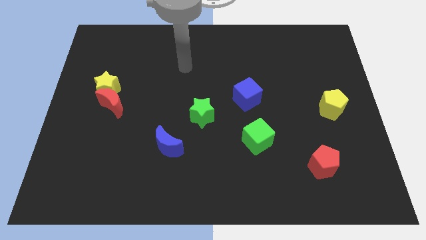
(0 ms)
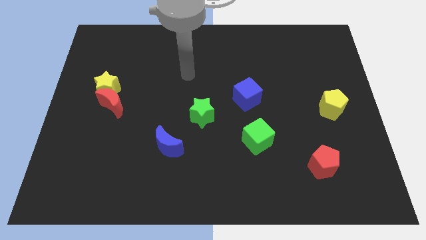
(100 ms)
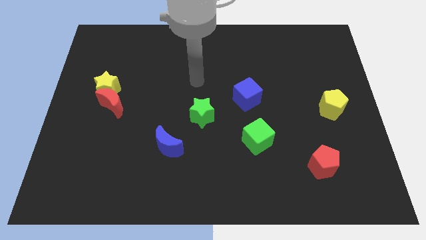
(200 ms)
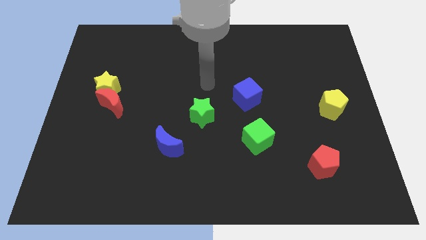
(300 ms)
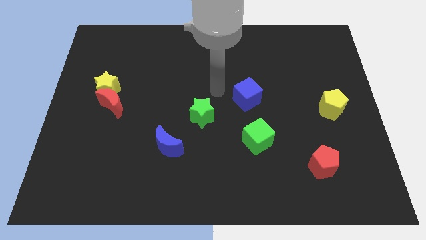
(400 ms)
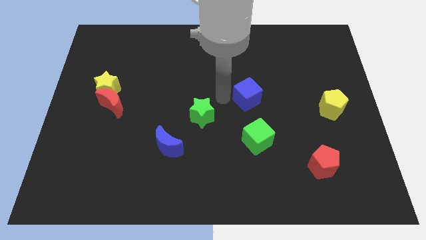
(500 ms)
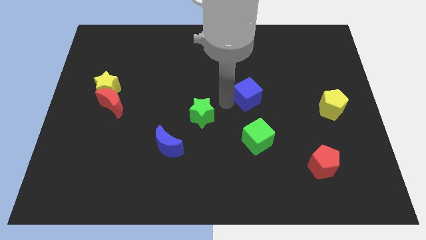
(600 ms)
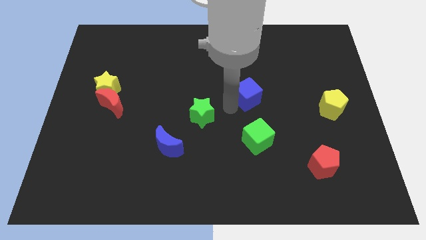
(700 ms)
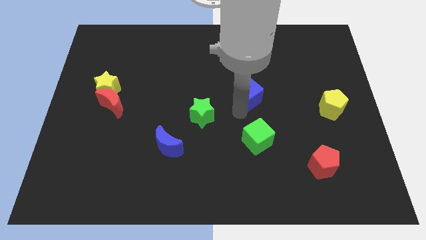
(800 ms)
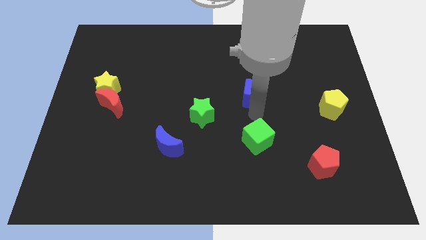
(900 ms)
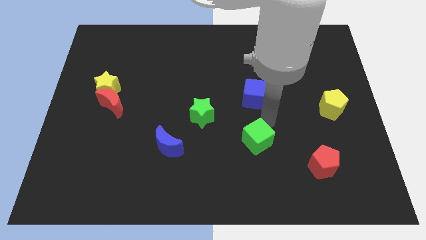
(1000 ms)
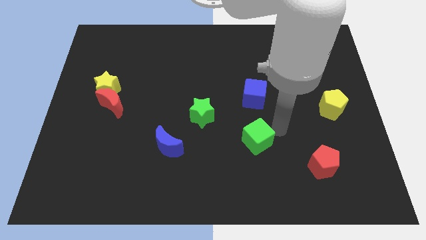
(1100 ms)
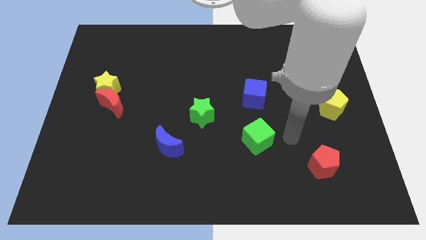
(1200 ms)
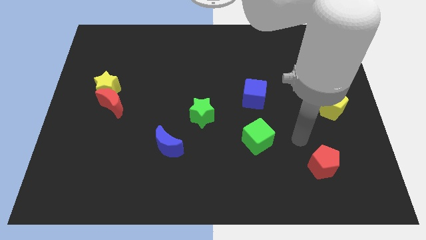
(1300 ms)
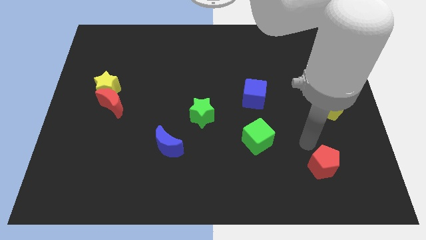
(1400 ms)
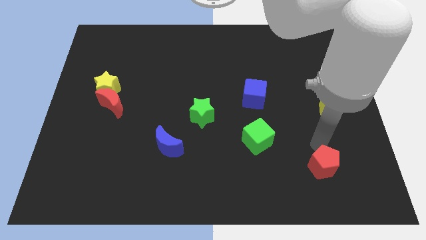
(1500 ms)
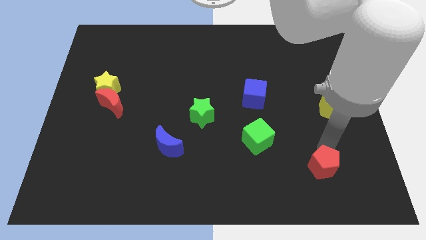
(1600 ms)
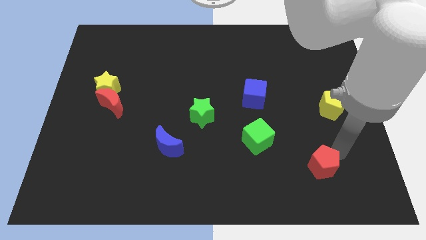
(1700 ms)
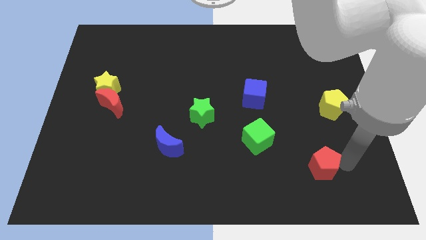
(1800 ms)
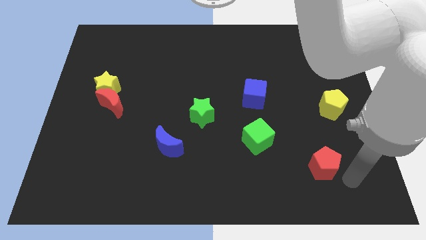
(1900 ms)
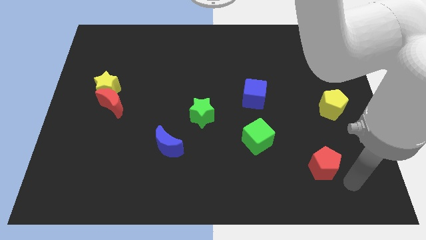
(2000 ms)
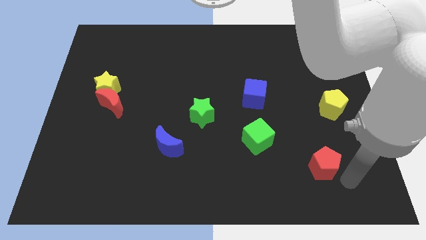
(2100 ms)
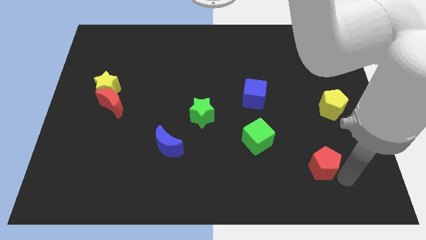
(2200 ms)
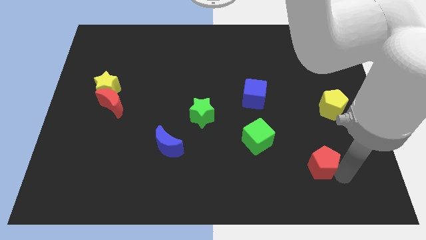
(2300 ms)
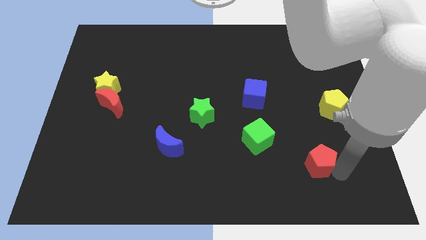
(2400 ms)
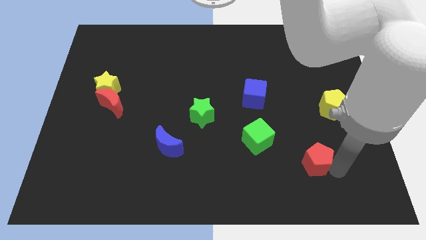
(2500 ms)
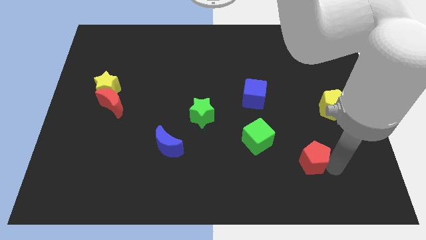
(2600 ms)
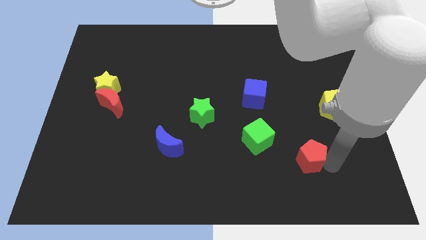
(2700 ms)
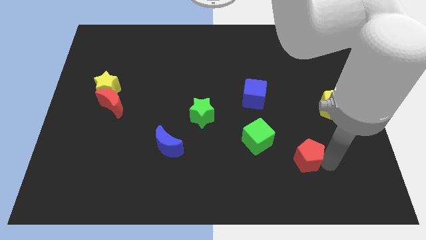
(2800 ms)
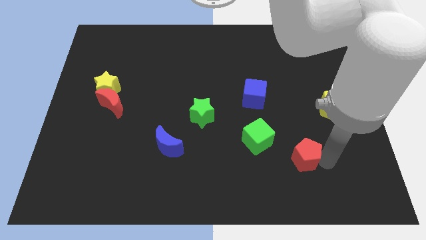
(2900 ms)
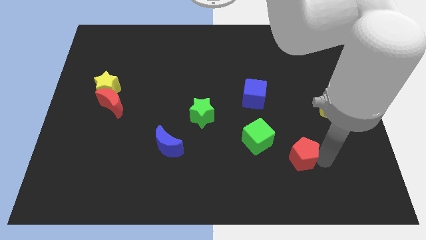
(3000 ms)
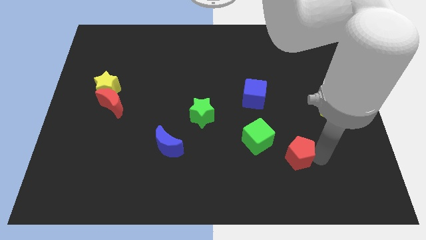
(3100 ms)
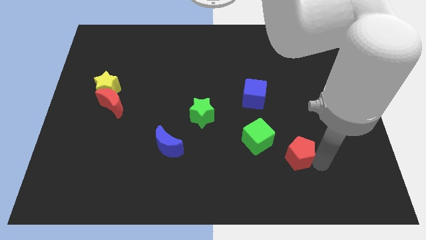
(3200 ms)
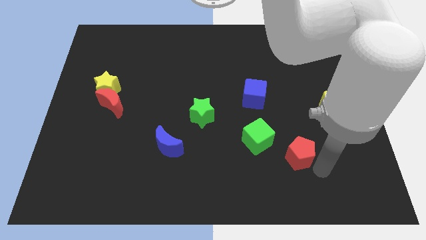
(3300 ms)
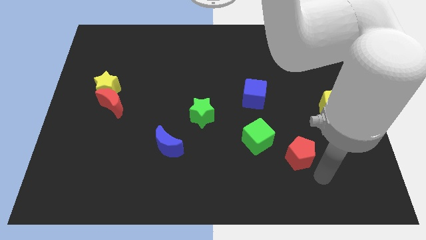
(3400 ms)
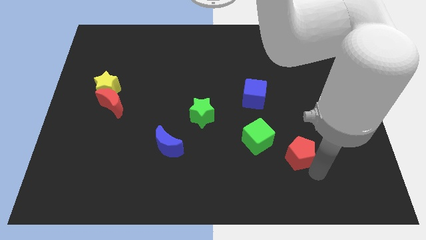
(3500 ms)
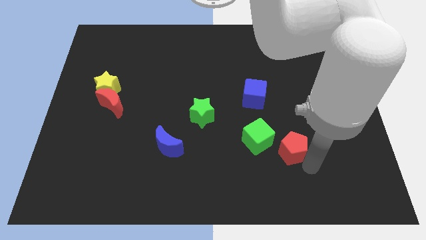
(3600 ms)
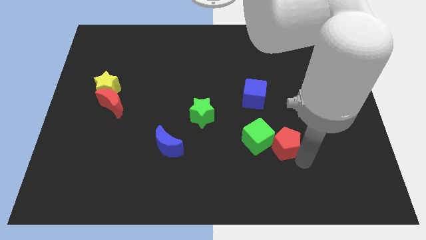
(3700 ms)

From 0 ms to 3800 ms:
push the red pentagon a bit up and to the left diagonally

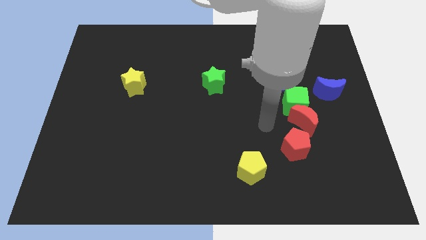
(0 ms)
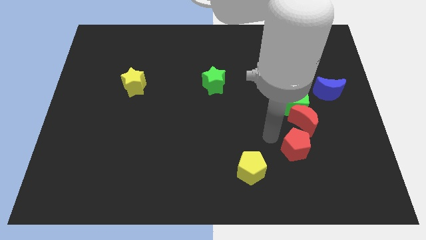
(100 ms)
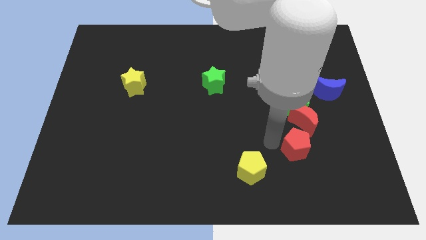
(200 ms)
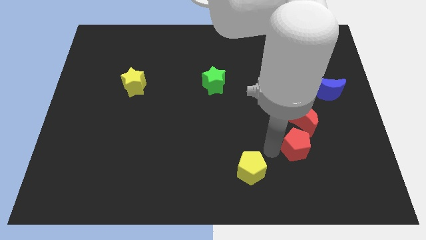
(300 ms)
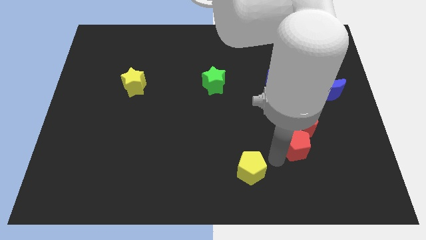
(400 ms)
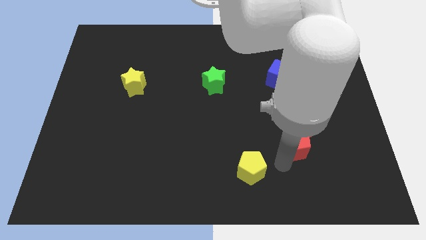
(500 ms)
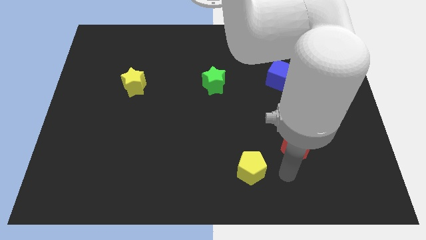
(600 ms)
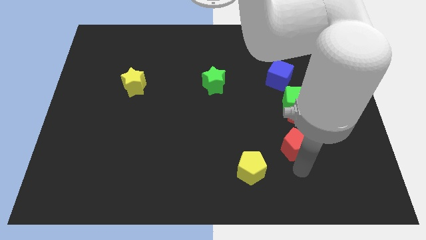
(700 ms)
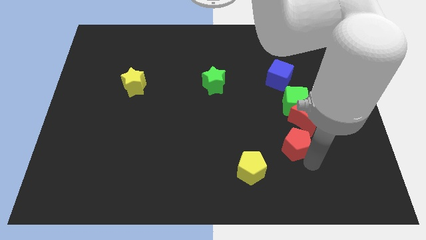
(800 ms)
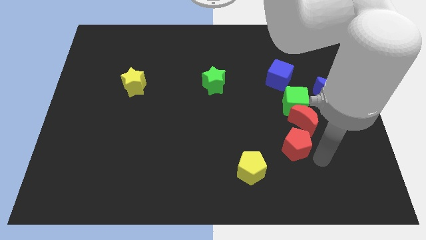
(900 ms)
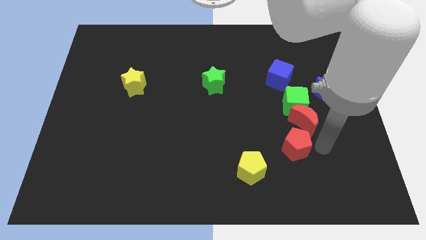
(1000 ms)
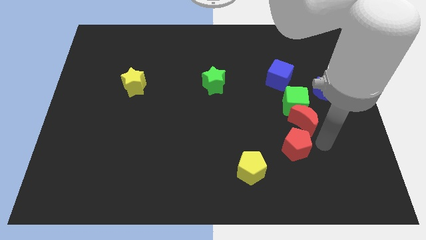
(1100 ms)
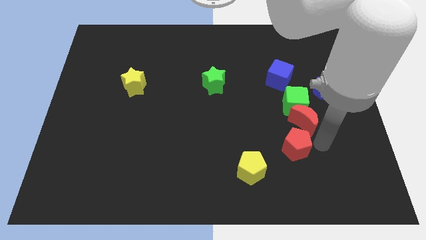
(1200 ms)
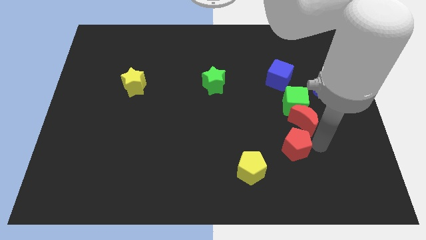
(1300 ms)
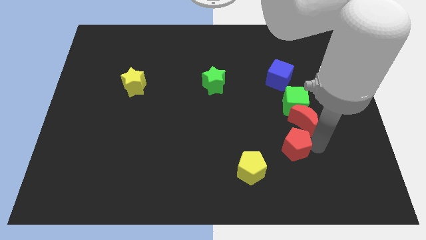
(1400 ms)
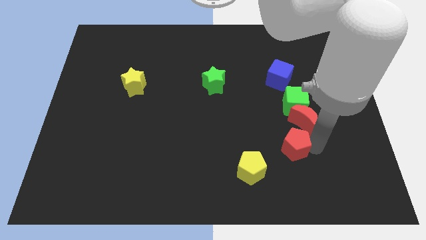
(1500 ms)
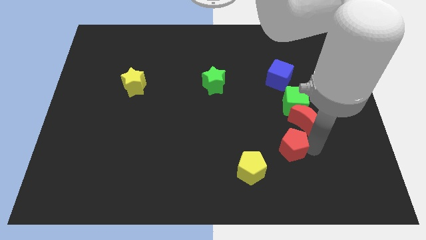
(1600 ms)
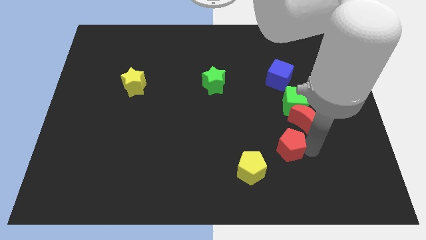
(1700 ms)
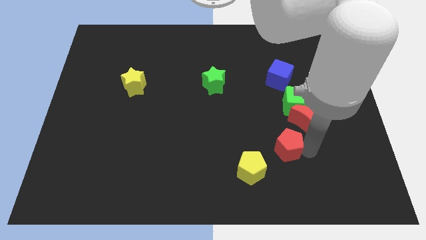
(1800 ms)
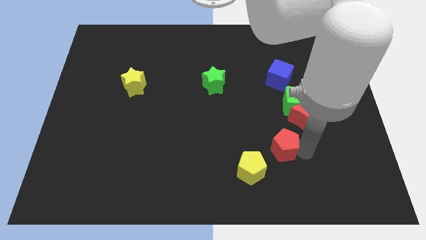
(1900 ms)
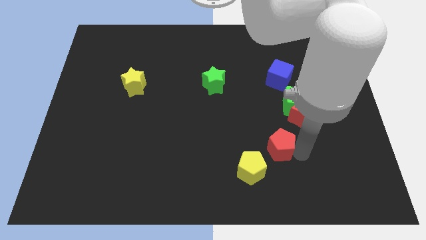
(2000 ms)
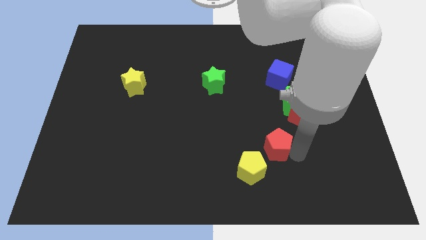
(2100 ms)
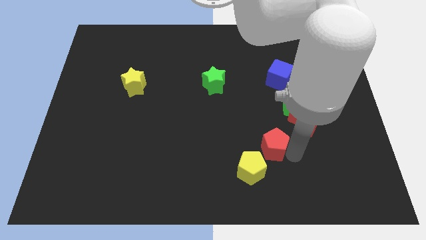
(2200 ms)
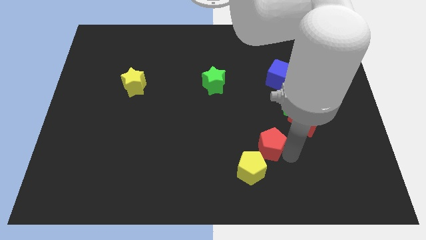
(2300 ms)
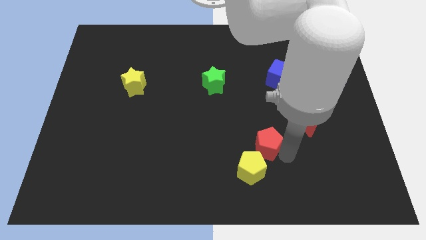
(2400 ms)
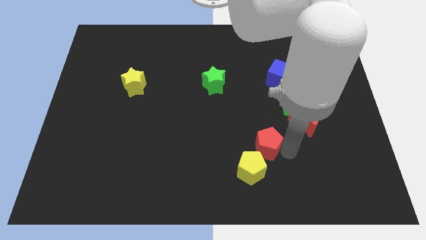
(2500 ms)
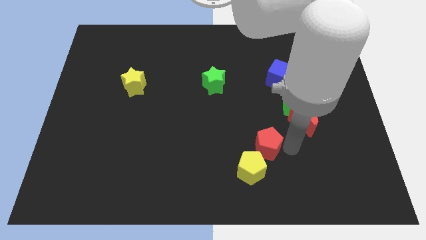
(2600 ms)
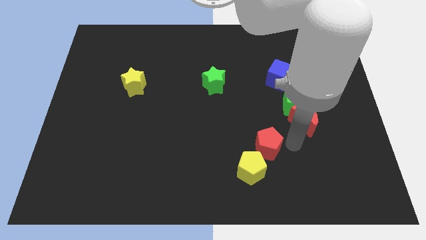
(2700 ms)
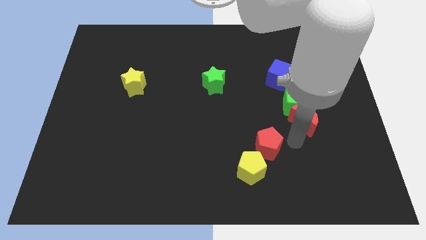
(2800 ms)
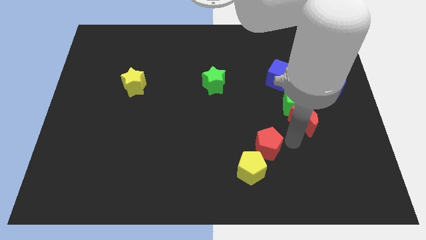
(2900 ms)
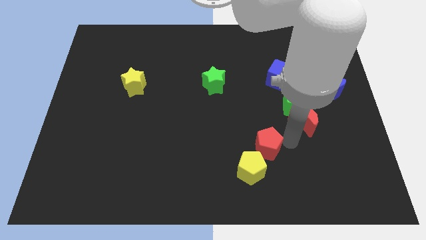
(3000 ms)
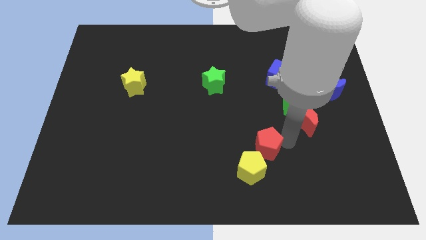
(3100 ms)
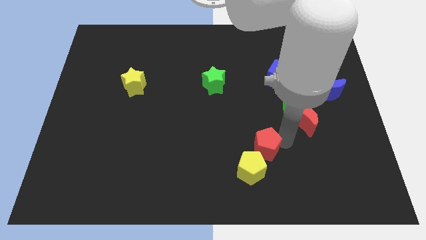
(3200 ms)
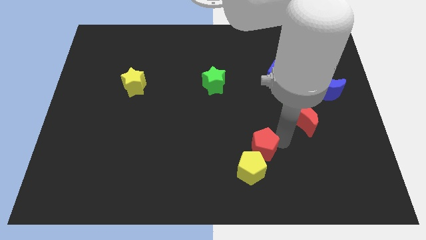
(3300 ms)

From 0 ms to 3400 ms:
push the red pentagon a bit to the left

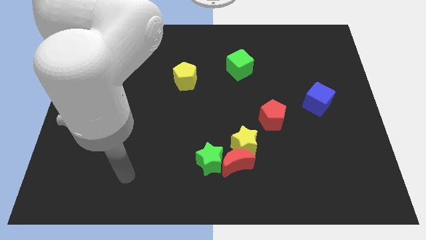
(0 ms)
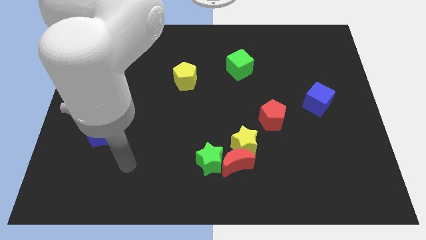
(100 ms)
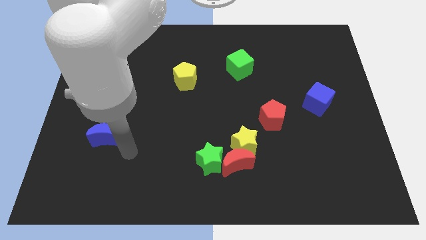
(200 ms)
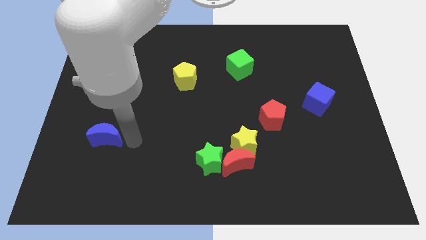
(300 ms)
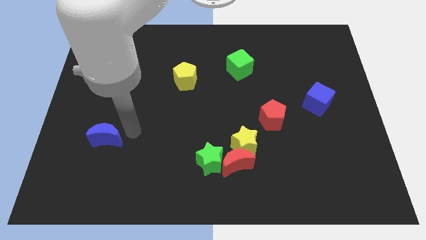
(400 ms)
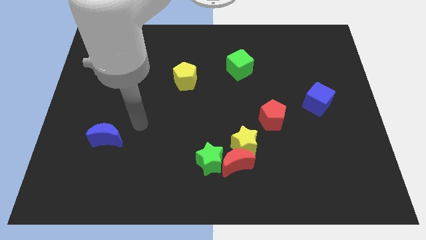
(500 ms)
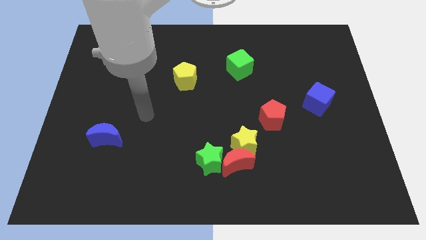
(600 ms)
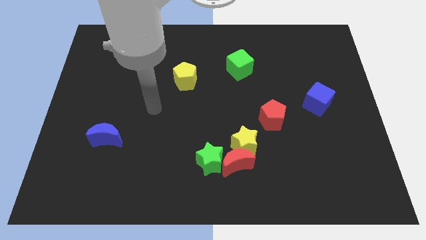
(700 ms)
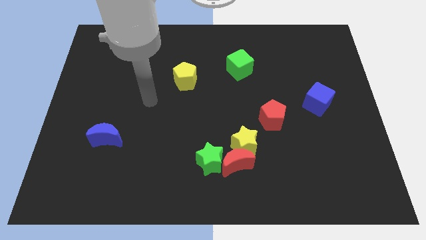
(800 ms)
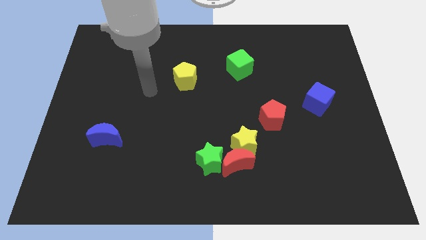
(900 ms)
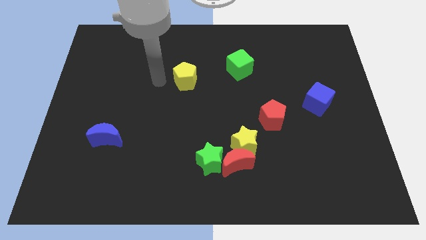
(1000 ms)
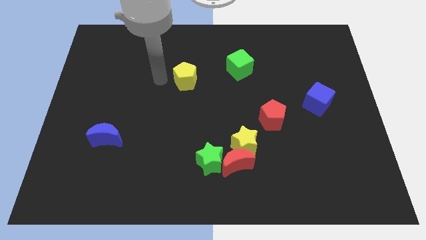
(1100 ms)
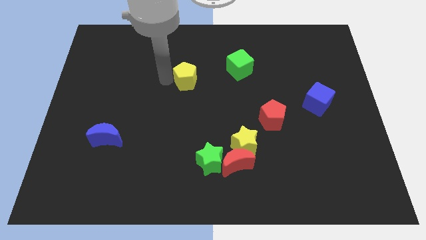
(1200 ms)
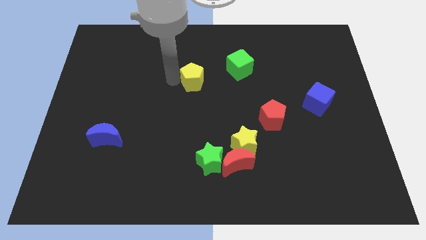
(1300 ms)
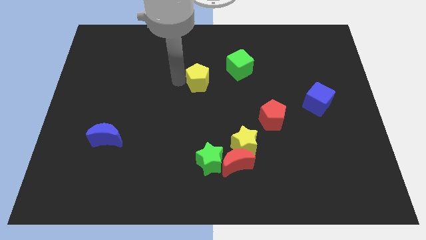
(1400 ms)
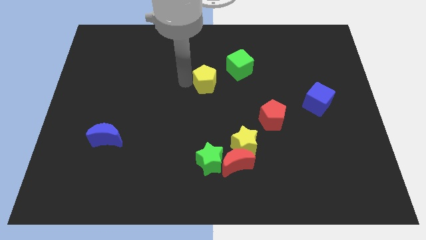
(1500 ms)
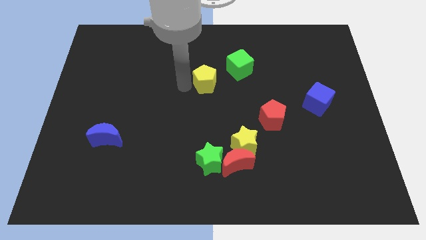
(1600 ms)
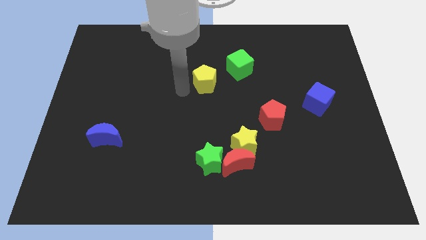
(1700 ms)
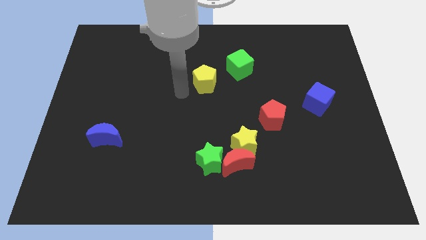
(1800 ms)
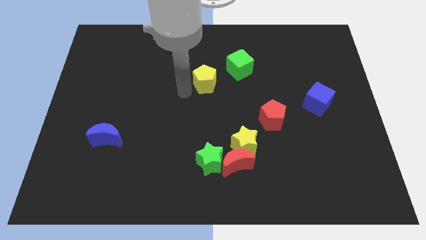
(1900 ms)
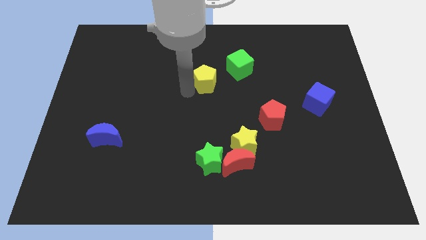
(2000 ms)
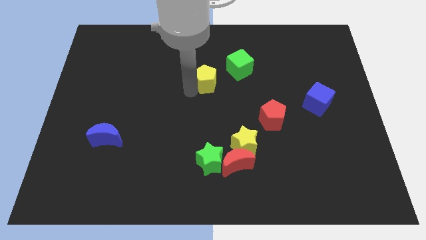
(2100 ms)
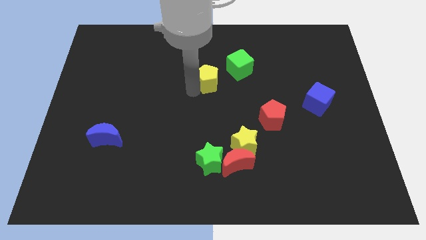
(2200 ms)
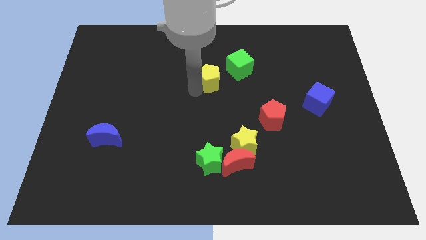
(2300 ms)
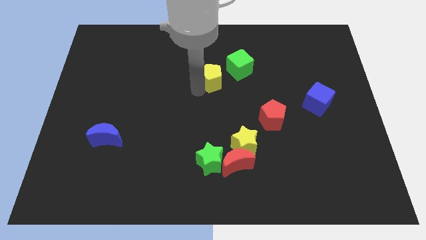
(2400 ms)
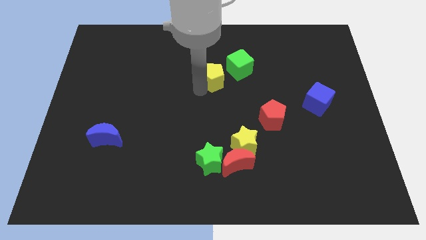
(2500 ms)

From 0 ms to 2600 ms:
slightly push the yellow pentagon to the right
